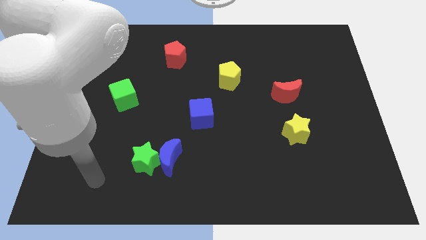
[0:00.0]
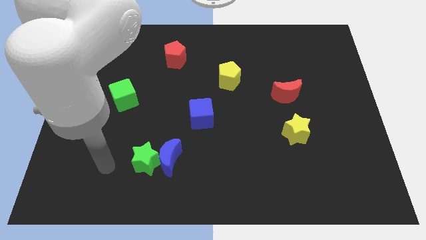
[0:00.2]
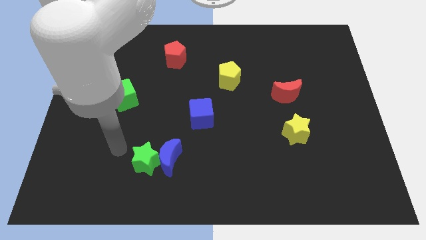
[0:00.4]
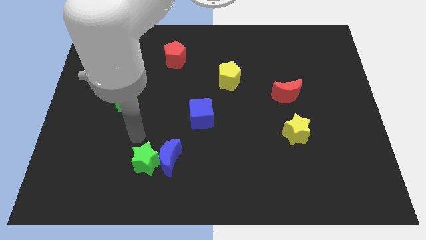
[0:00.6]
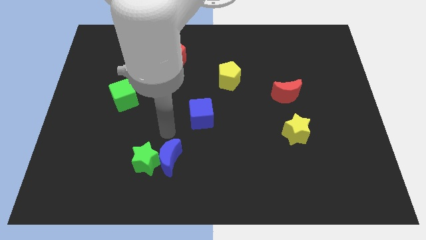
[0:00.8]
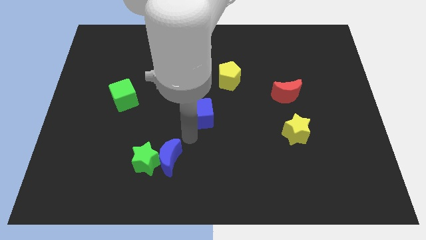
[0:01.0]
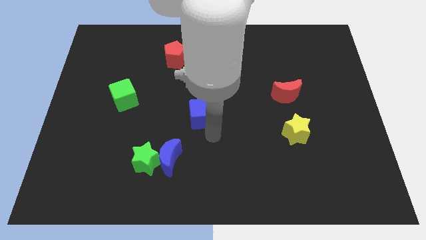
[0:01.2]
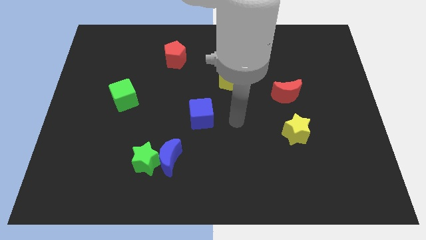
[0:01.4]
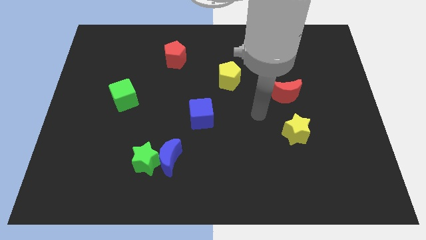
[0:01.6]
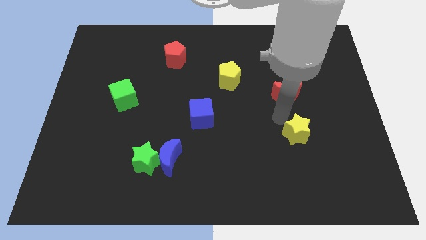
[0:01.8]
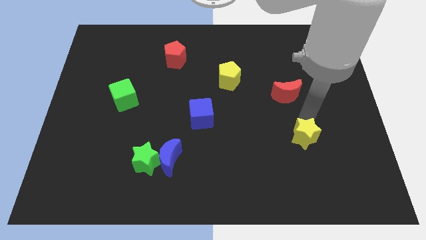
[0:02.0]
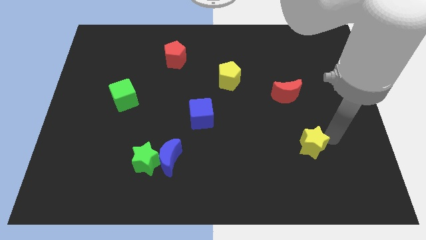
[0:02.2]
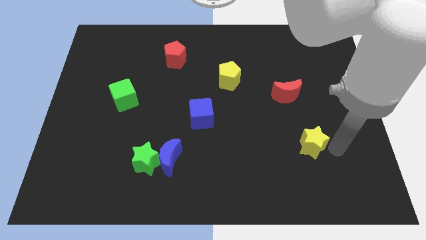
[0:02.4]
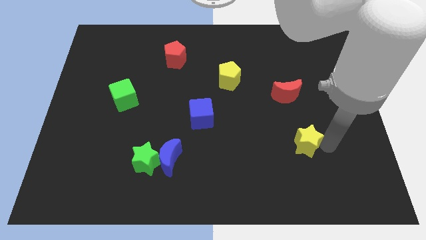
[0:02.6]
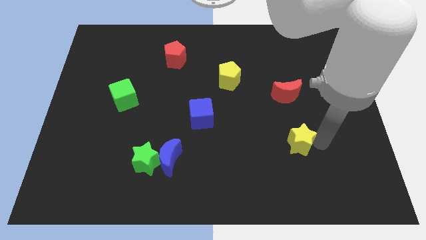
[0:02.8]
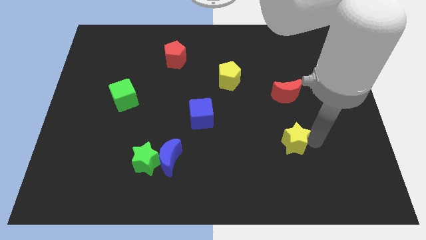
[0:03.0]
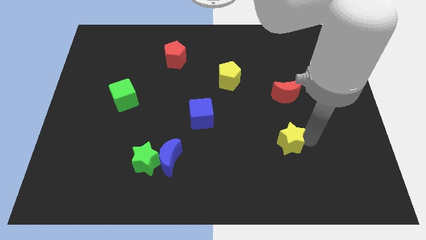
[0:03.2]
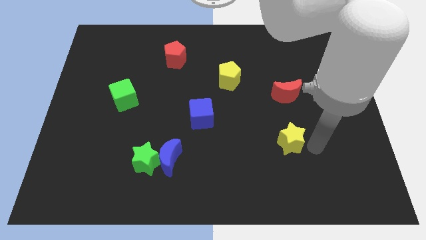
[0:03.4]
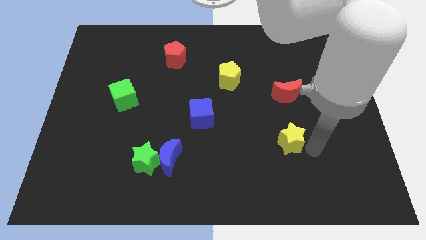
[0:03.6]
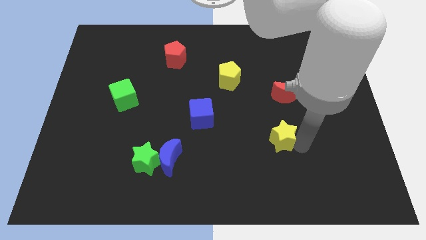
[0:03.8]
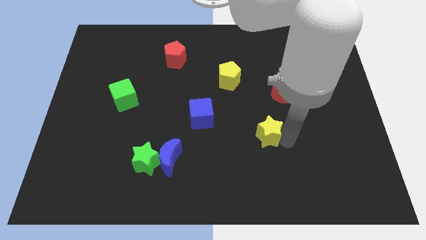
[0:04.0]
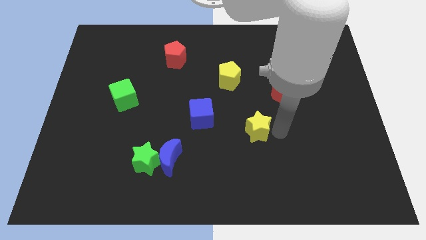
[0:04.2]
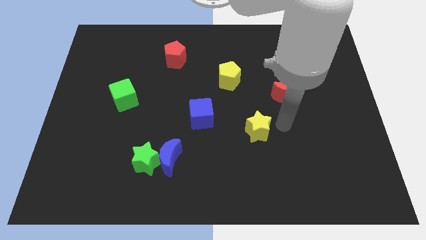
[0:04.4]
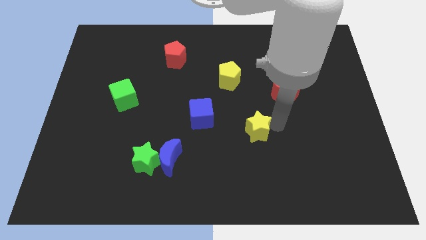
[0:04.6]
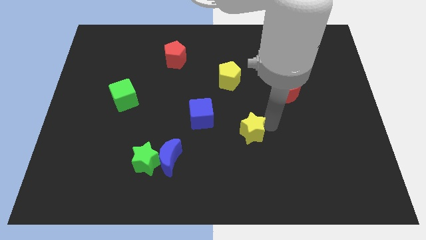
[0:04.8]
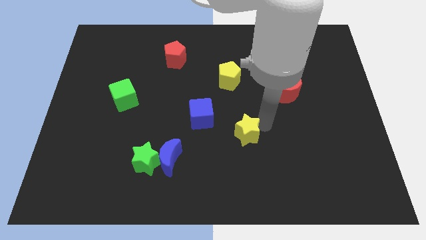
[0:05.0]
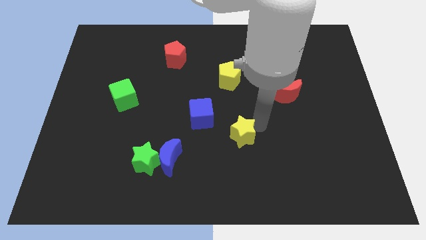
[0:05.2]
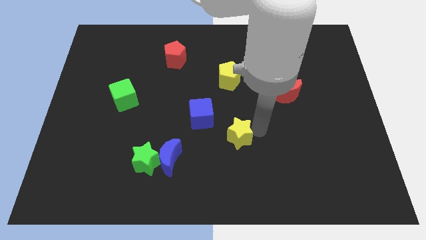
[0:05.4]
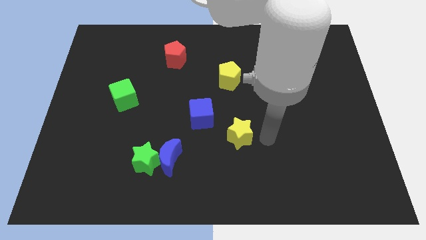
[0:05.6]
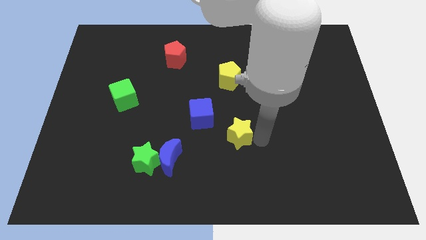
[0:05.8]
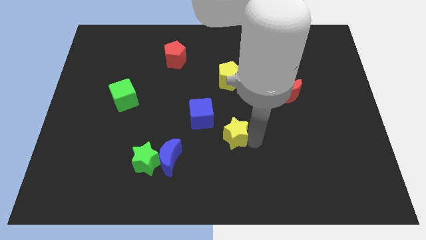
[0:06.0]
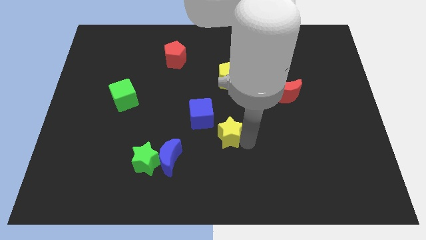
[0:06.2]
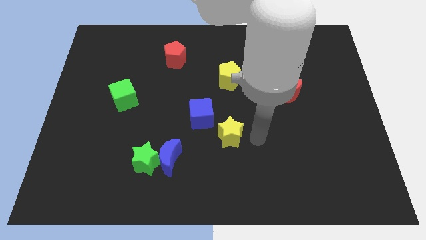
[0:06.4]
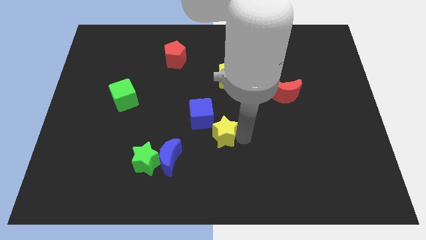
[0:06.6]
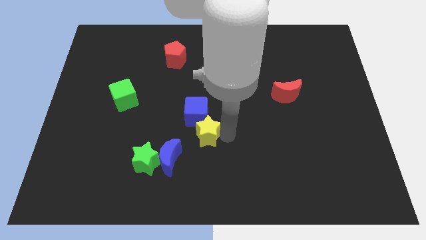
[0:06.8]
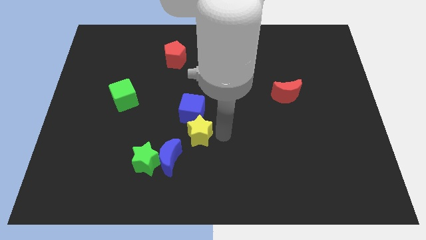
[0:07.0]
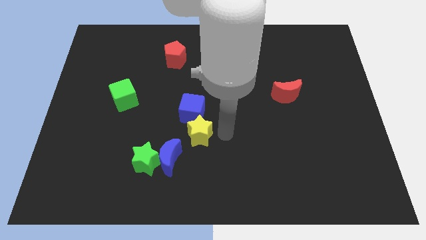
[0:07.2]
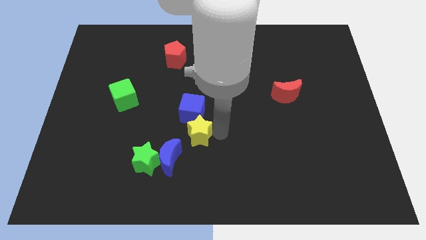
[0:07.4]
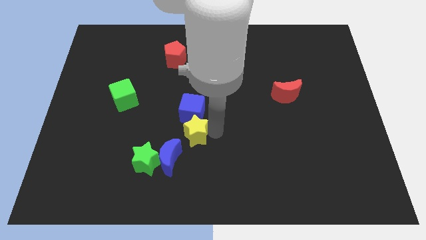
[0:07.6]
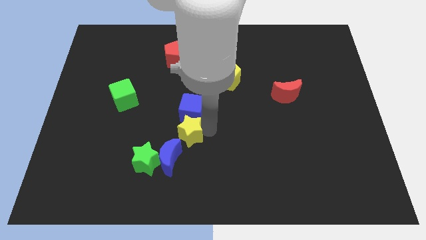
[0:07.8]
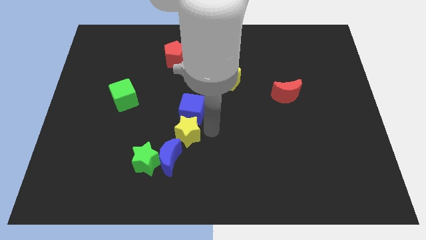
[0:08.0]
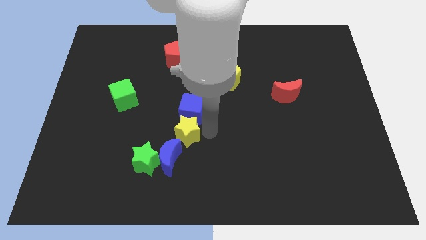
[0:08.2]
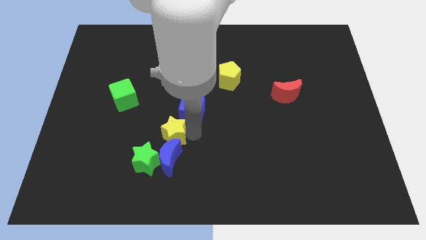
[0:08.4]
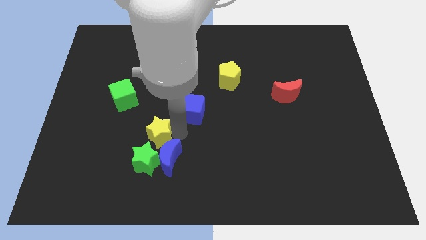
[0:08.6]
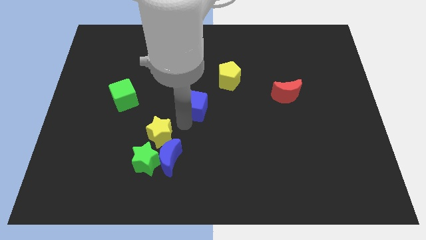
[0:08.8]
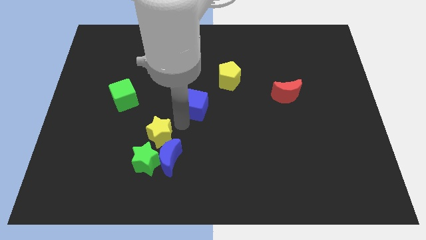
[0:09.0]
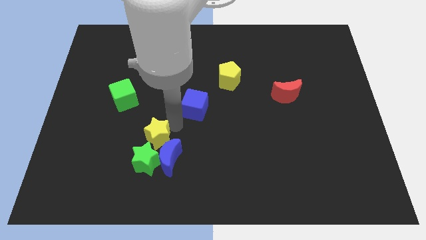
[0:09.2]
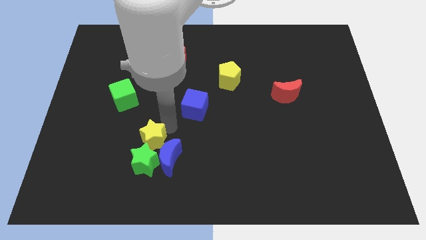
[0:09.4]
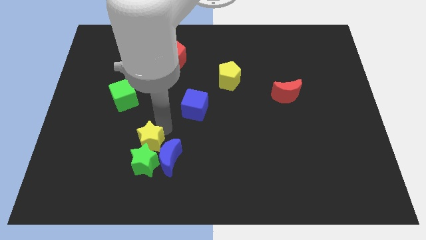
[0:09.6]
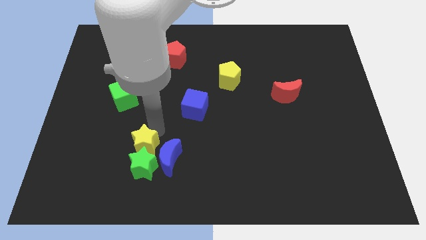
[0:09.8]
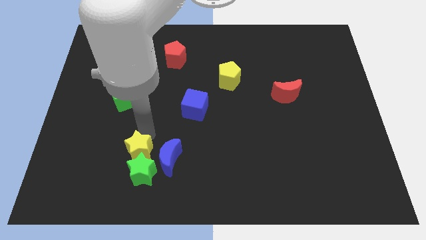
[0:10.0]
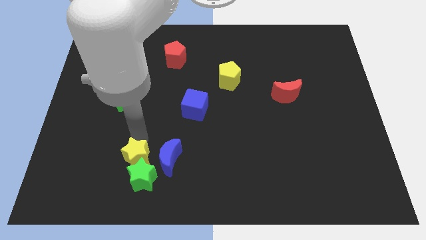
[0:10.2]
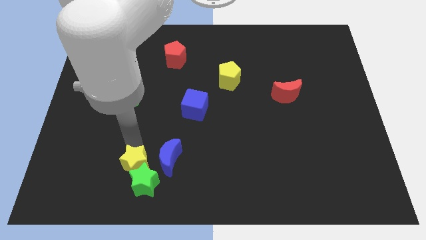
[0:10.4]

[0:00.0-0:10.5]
put the yellow star to the left of the green star

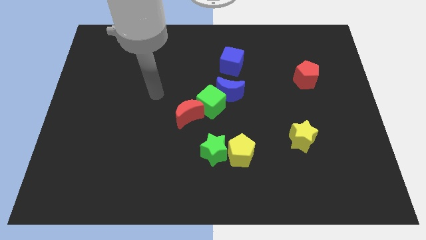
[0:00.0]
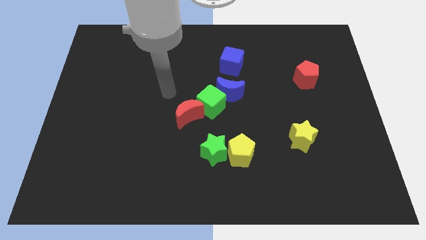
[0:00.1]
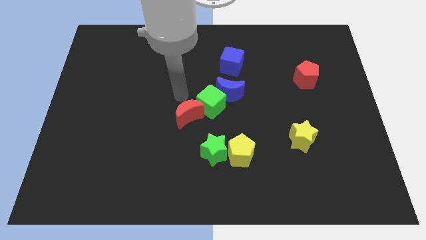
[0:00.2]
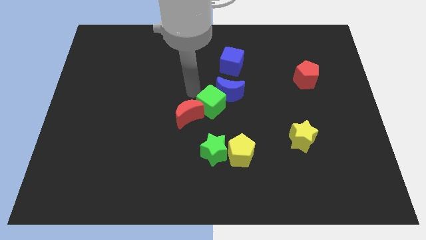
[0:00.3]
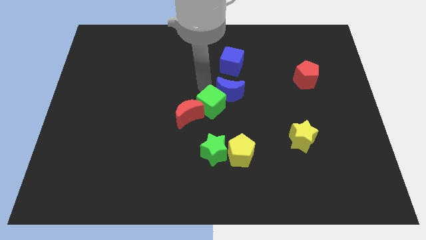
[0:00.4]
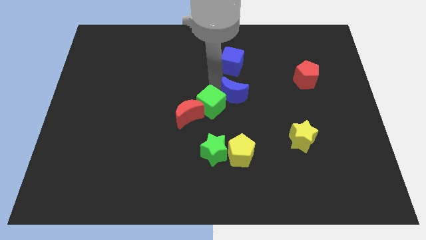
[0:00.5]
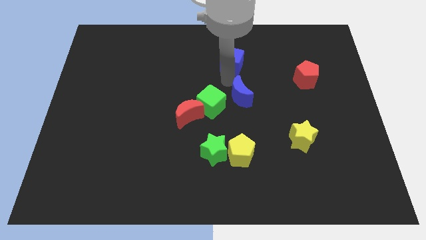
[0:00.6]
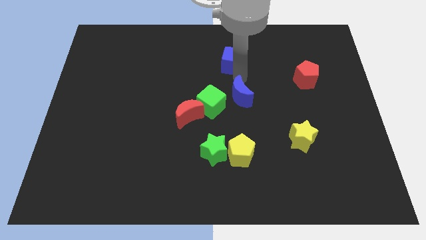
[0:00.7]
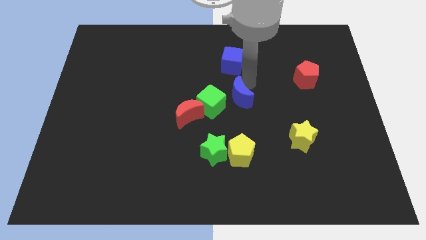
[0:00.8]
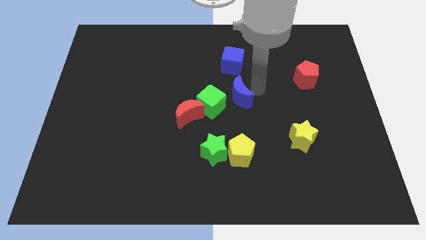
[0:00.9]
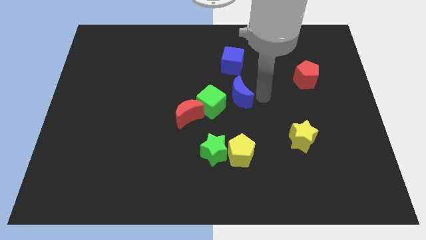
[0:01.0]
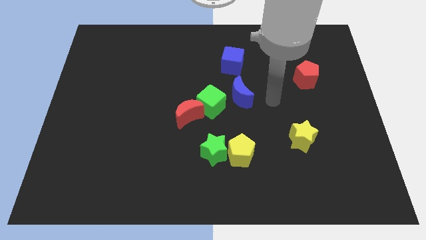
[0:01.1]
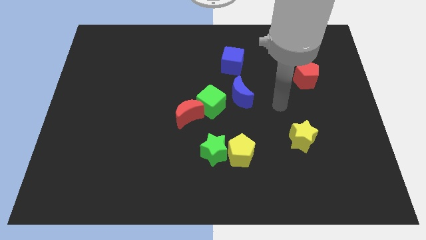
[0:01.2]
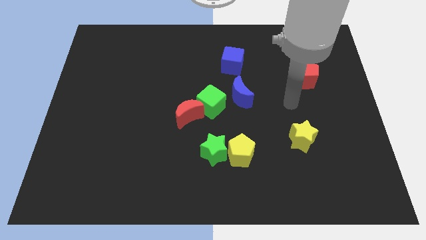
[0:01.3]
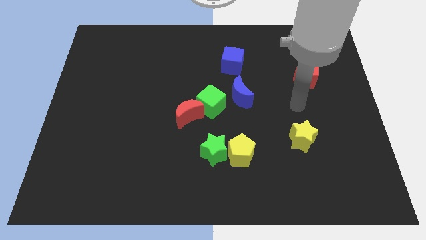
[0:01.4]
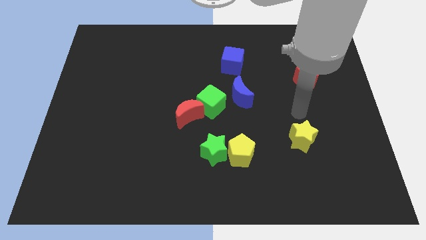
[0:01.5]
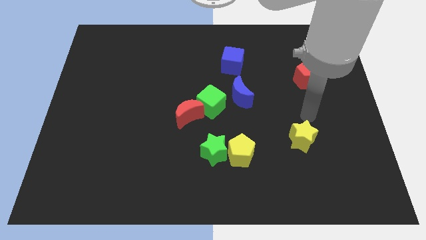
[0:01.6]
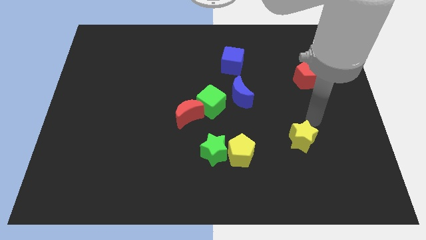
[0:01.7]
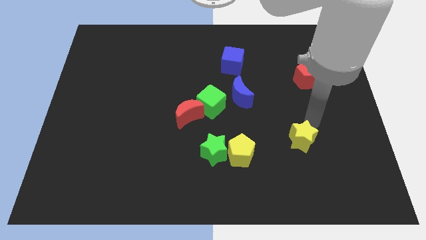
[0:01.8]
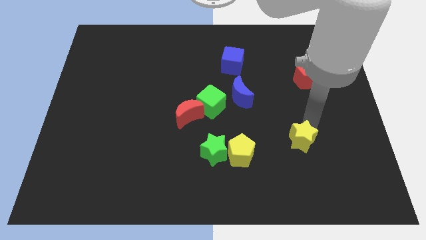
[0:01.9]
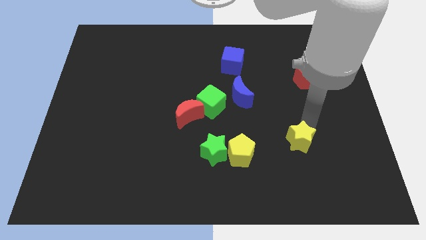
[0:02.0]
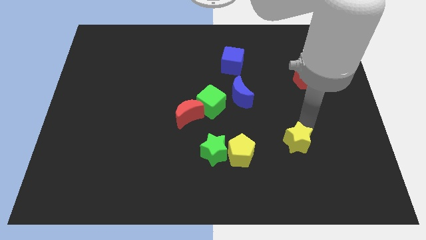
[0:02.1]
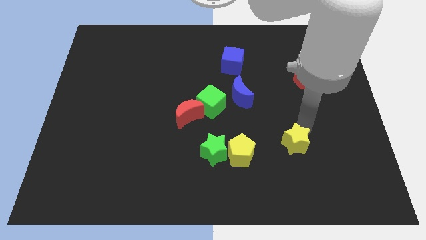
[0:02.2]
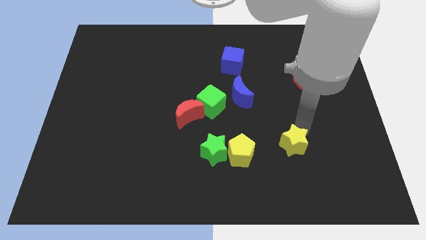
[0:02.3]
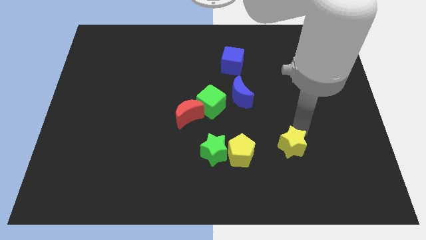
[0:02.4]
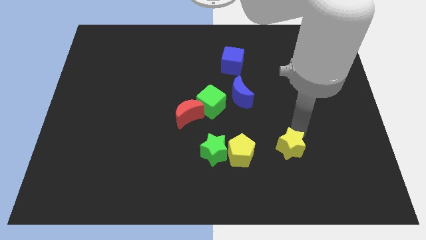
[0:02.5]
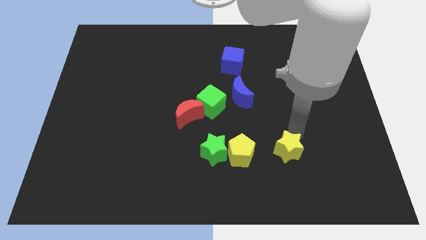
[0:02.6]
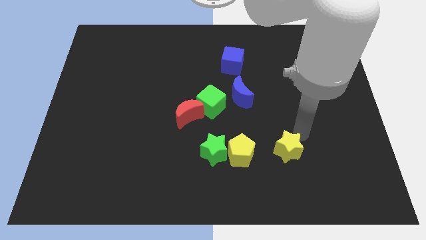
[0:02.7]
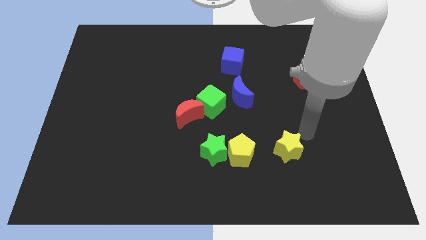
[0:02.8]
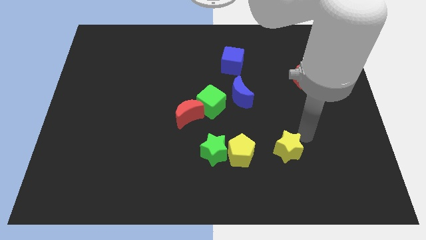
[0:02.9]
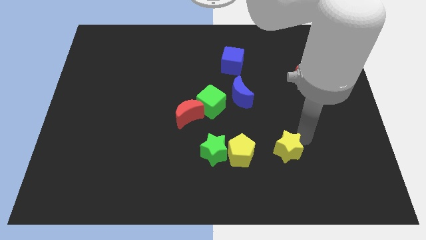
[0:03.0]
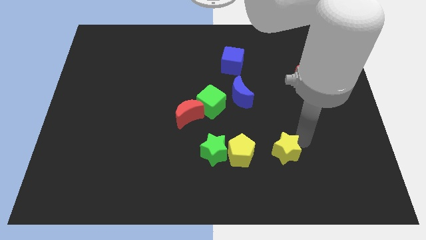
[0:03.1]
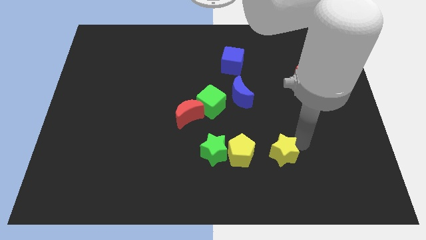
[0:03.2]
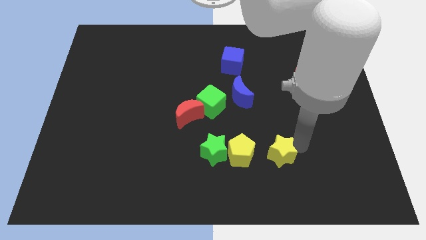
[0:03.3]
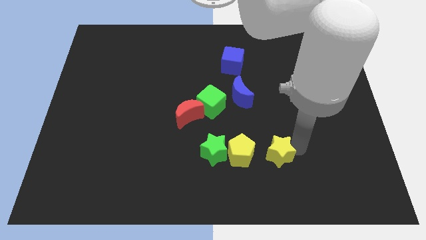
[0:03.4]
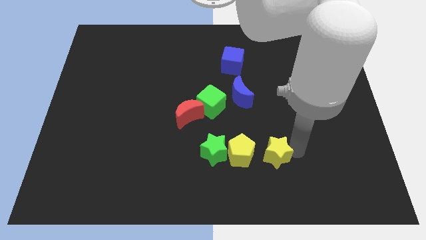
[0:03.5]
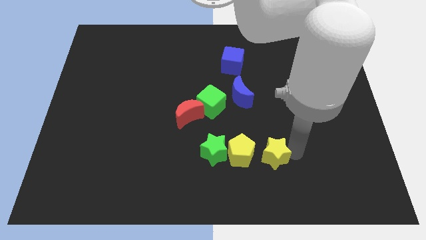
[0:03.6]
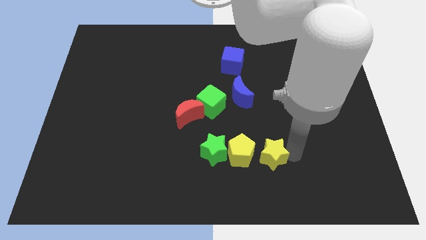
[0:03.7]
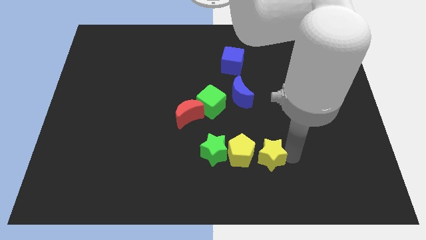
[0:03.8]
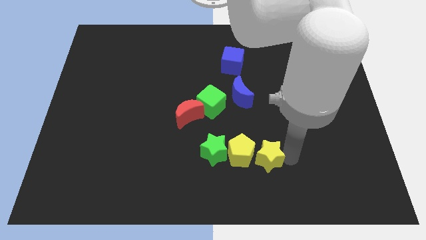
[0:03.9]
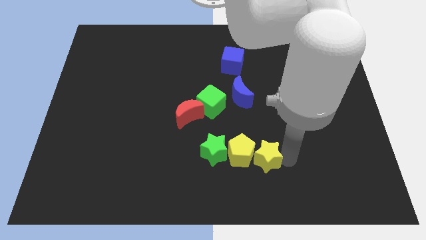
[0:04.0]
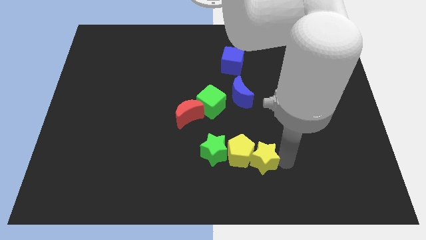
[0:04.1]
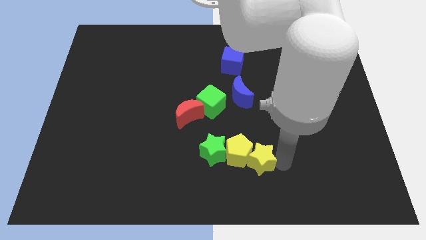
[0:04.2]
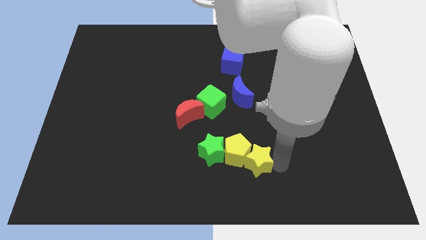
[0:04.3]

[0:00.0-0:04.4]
put the yellow star diagonally down and to the right of the green star
